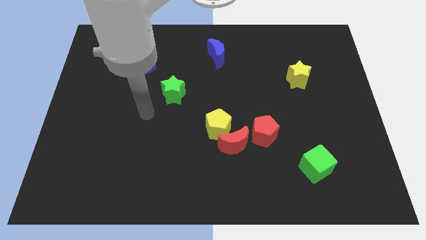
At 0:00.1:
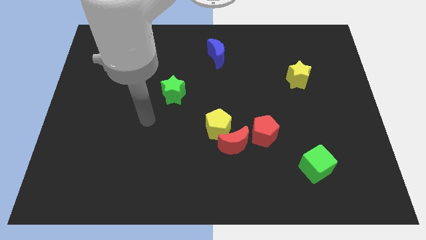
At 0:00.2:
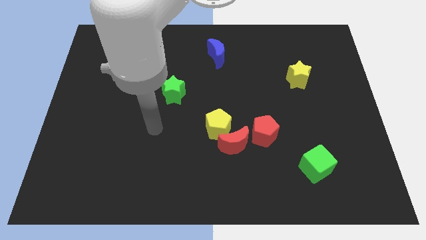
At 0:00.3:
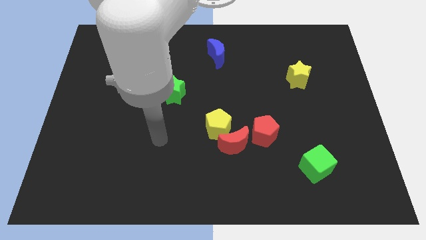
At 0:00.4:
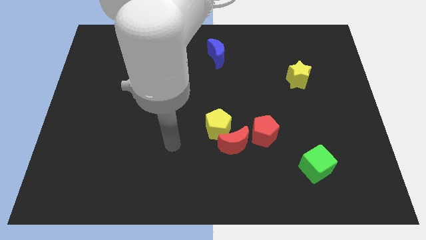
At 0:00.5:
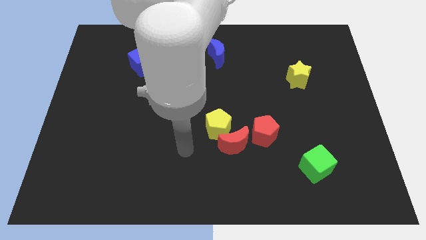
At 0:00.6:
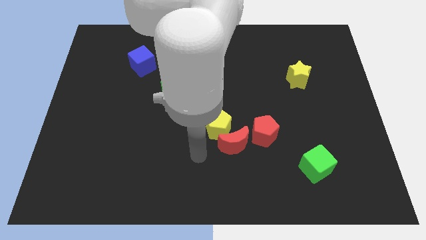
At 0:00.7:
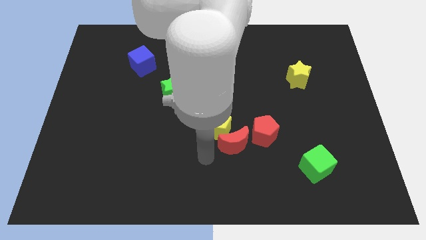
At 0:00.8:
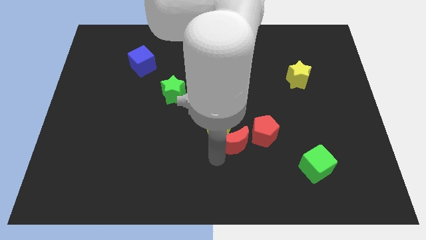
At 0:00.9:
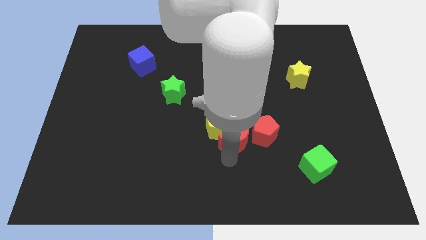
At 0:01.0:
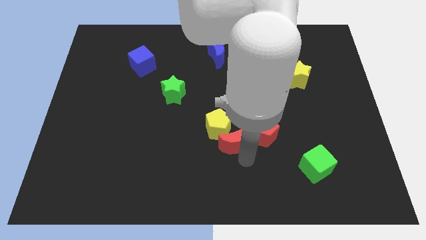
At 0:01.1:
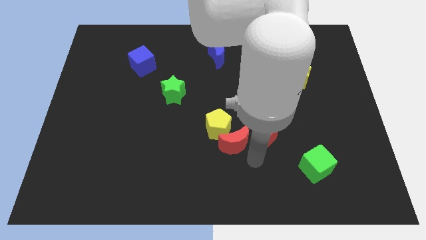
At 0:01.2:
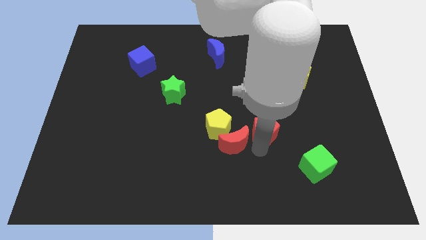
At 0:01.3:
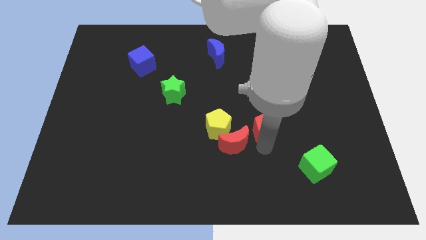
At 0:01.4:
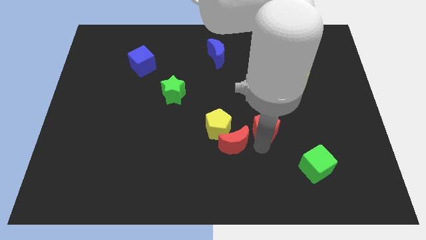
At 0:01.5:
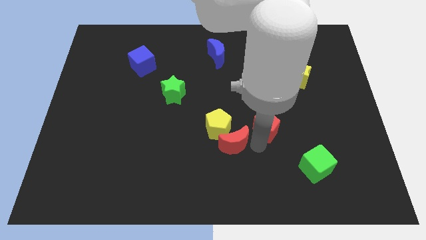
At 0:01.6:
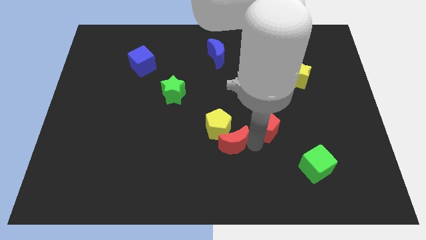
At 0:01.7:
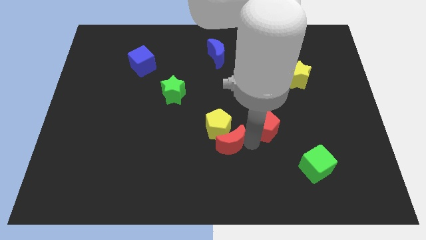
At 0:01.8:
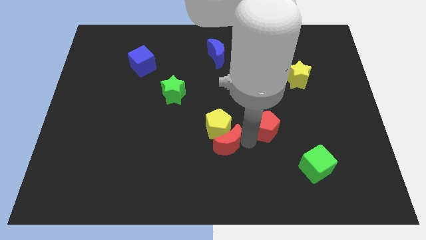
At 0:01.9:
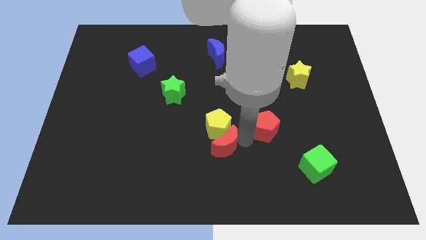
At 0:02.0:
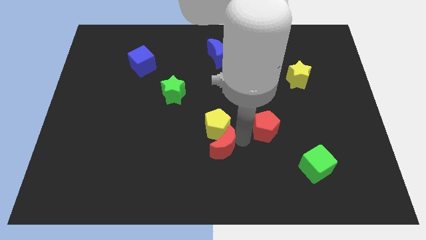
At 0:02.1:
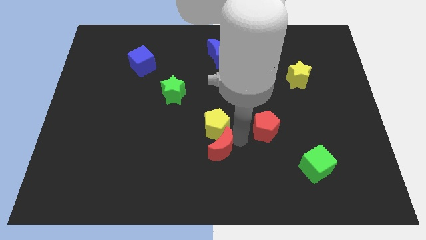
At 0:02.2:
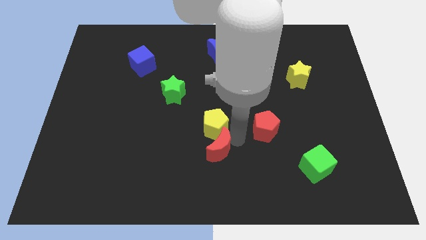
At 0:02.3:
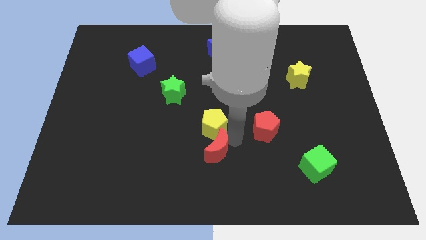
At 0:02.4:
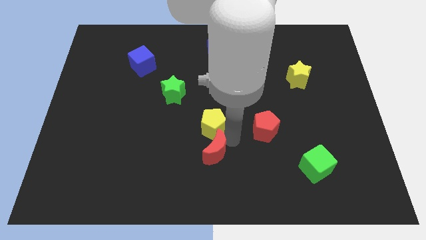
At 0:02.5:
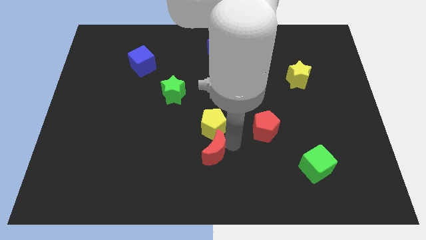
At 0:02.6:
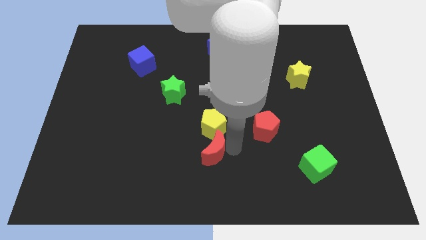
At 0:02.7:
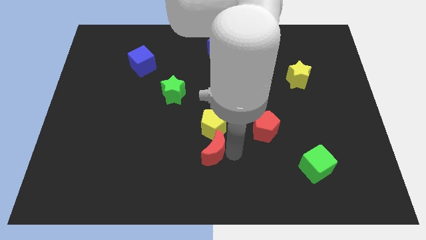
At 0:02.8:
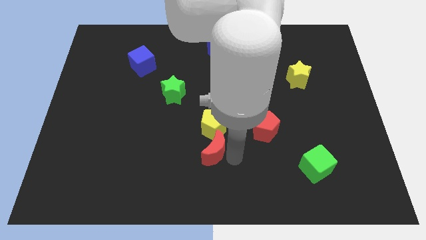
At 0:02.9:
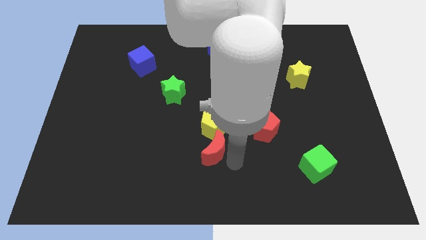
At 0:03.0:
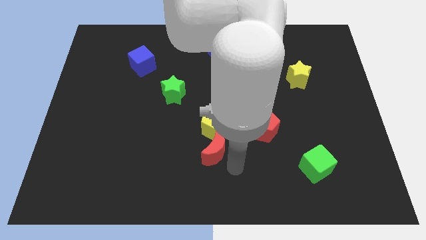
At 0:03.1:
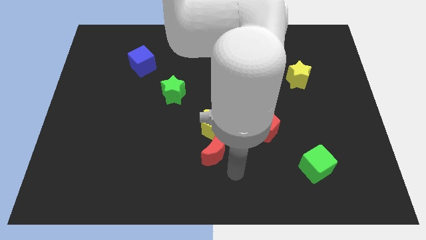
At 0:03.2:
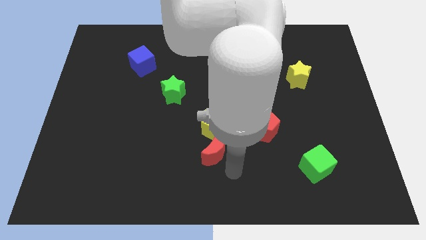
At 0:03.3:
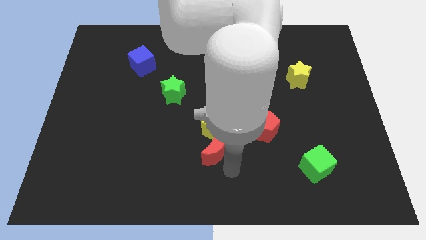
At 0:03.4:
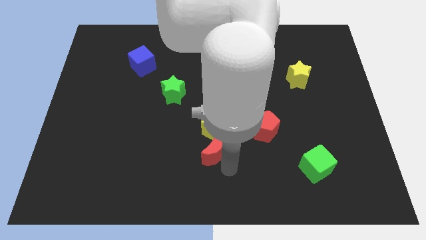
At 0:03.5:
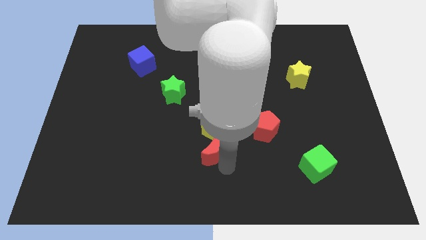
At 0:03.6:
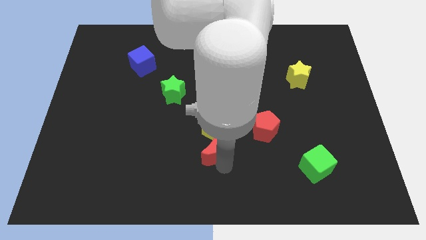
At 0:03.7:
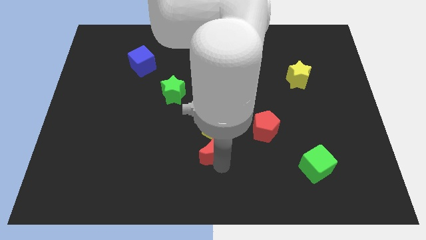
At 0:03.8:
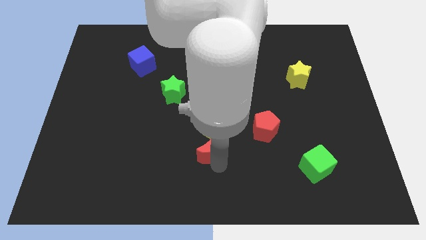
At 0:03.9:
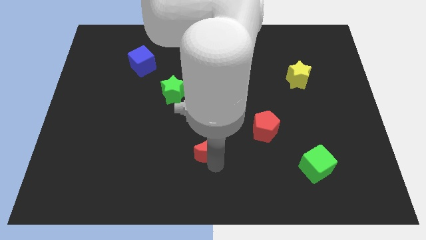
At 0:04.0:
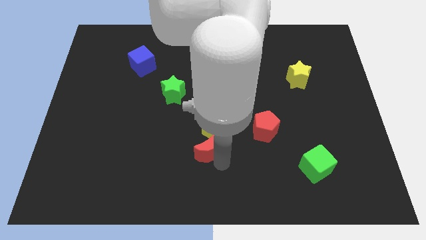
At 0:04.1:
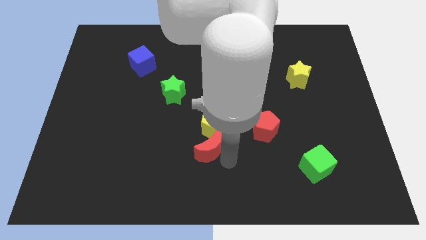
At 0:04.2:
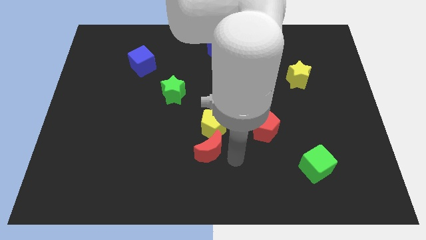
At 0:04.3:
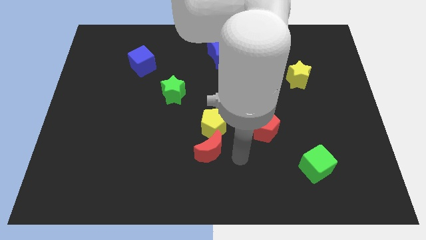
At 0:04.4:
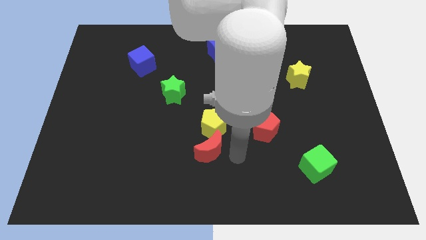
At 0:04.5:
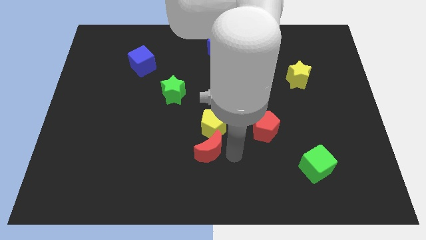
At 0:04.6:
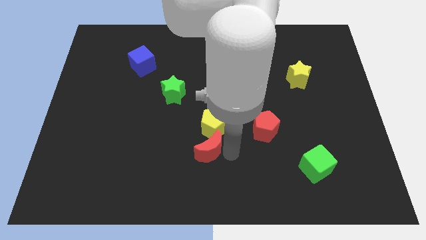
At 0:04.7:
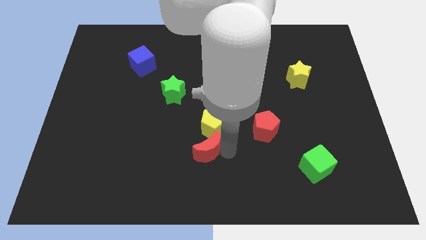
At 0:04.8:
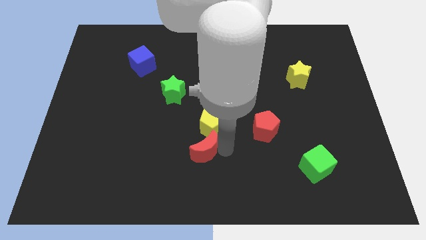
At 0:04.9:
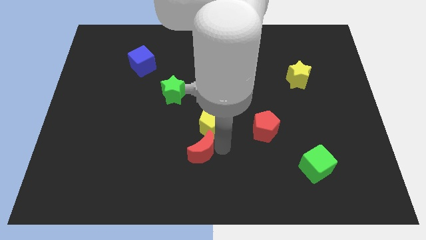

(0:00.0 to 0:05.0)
slightly push the red moon to the left

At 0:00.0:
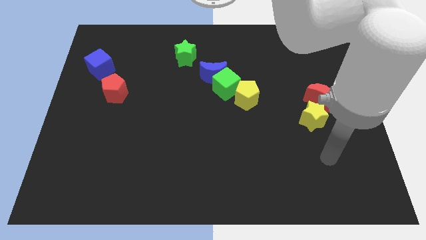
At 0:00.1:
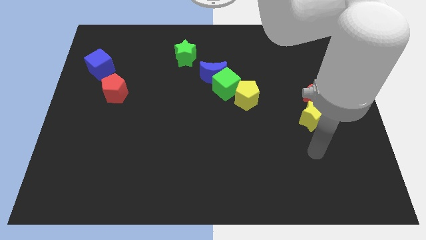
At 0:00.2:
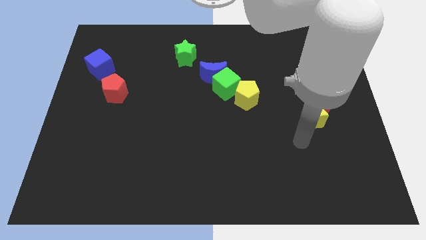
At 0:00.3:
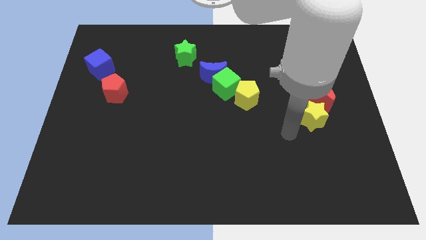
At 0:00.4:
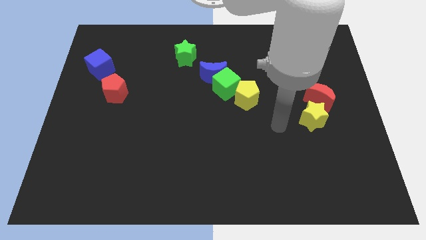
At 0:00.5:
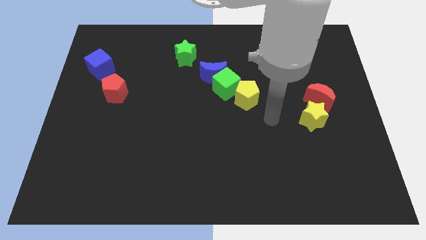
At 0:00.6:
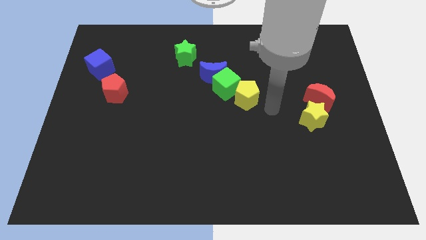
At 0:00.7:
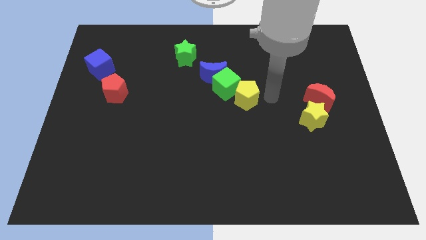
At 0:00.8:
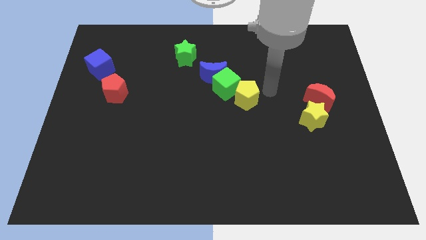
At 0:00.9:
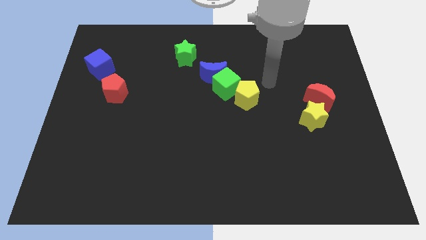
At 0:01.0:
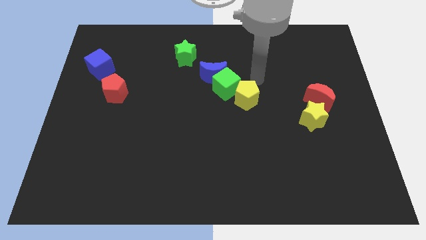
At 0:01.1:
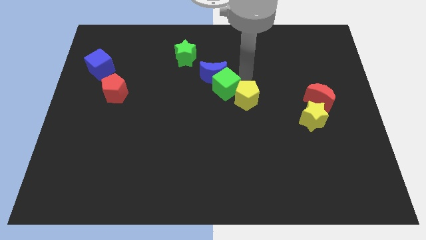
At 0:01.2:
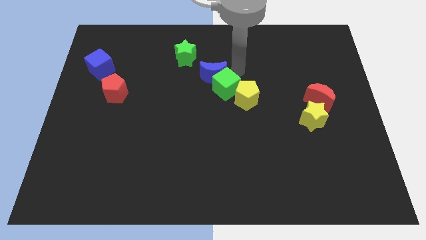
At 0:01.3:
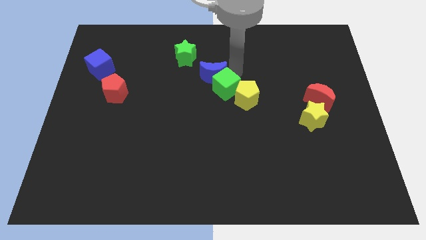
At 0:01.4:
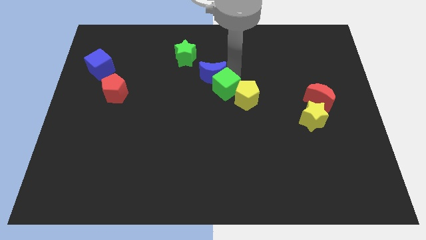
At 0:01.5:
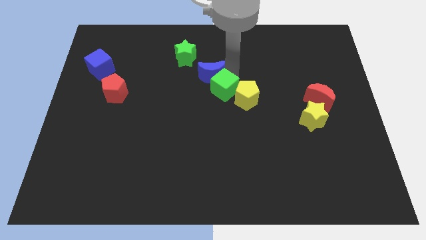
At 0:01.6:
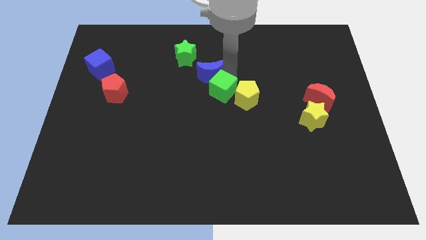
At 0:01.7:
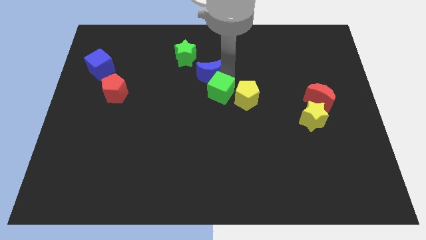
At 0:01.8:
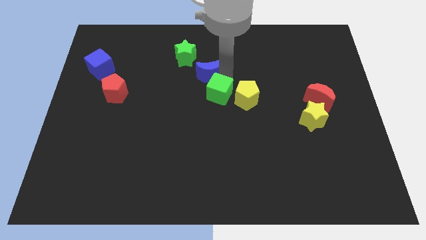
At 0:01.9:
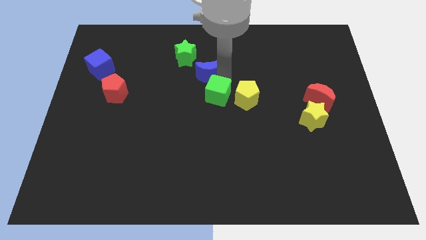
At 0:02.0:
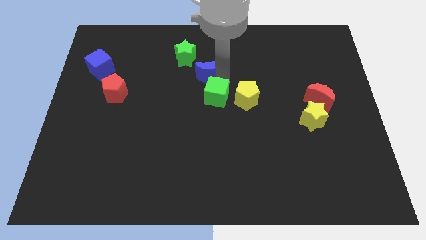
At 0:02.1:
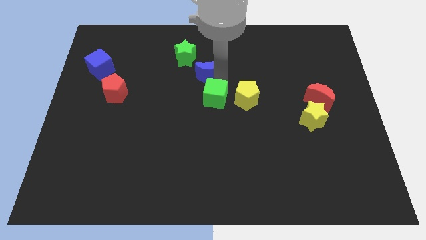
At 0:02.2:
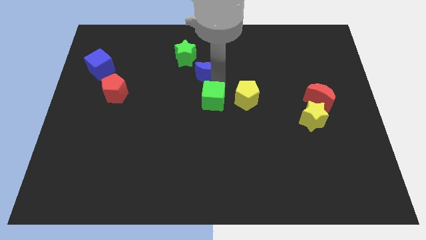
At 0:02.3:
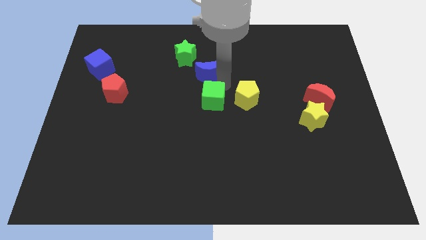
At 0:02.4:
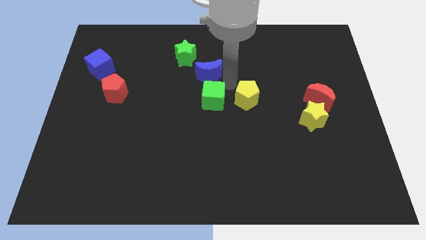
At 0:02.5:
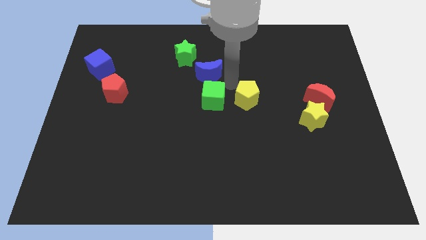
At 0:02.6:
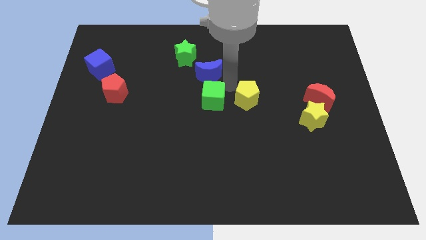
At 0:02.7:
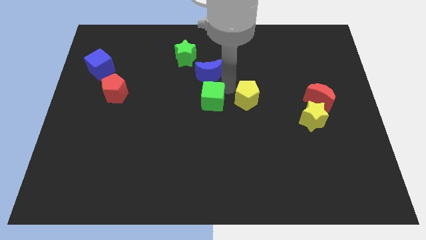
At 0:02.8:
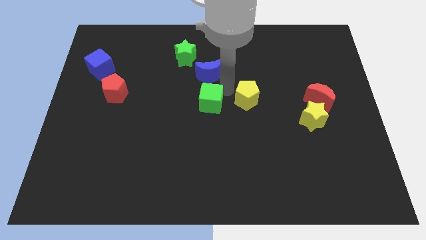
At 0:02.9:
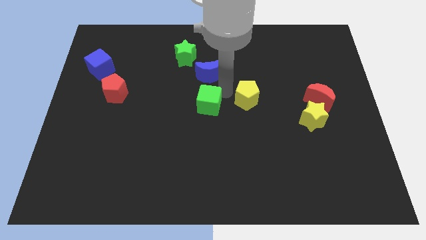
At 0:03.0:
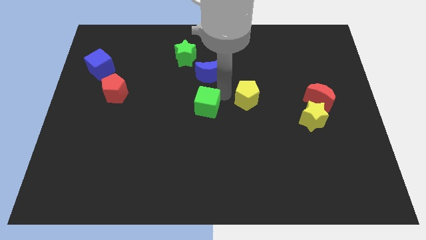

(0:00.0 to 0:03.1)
slightly slide the green cube diagonally down and to the left
